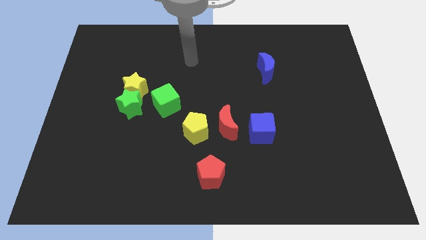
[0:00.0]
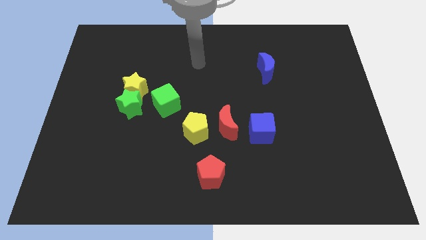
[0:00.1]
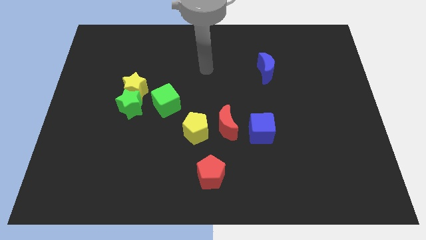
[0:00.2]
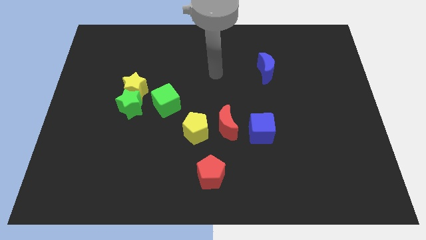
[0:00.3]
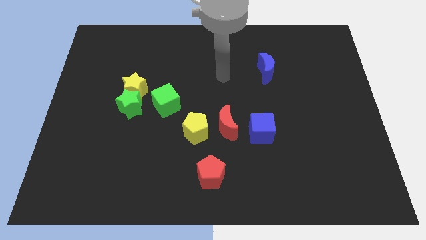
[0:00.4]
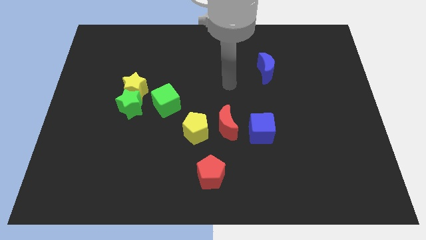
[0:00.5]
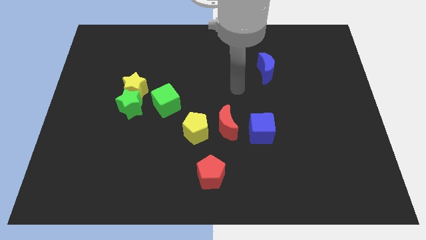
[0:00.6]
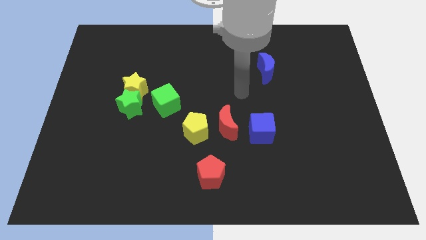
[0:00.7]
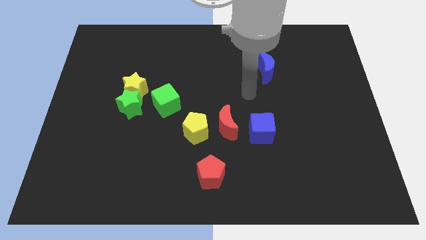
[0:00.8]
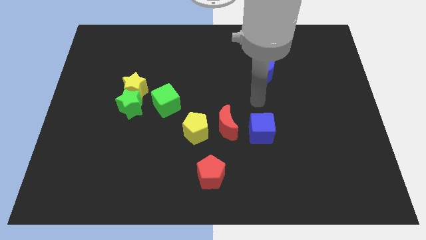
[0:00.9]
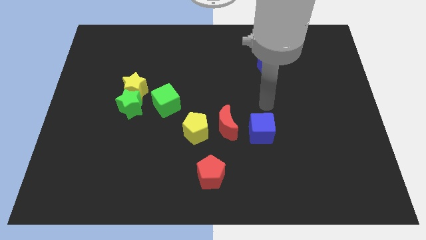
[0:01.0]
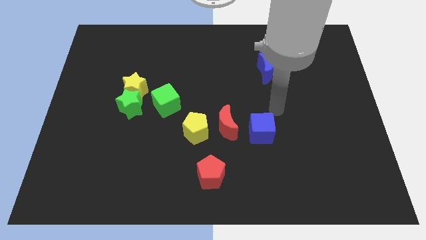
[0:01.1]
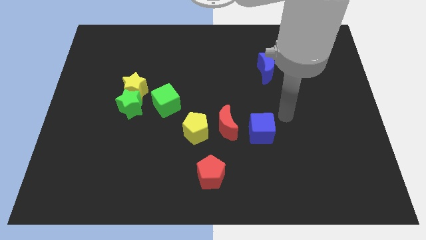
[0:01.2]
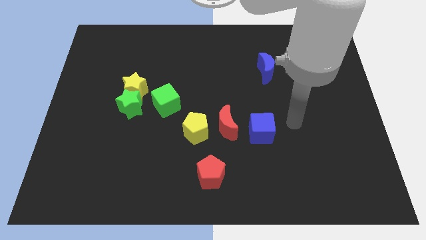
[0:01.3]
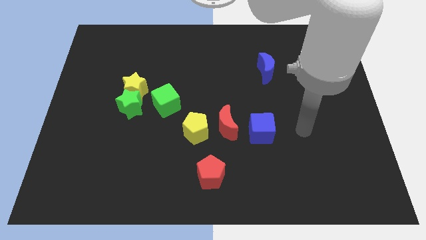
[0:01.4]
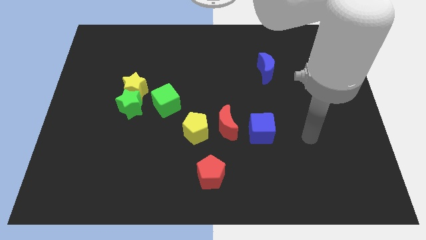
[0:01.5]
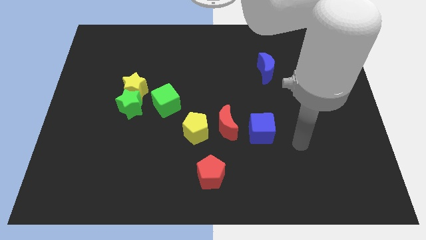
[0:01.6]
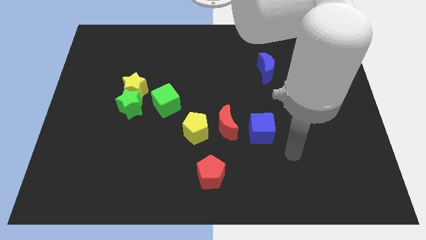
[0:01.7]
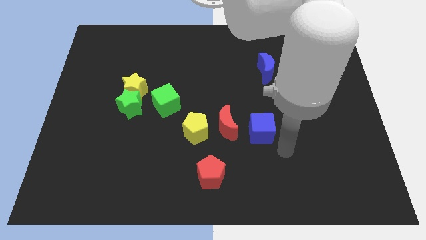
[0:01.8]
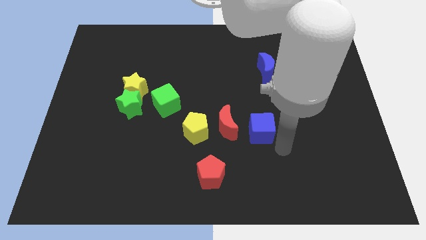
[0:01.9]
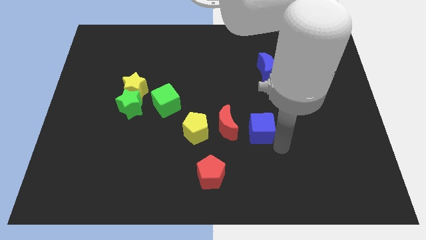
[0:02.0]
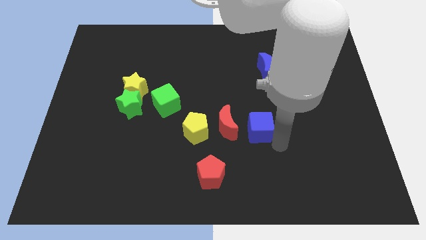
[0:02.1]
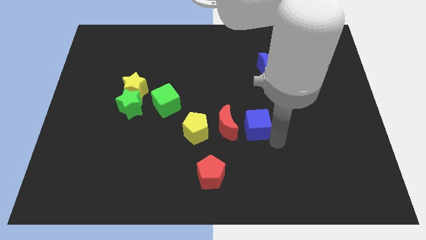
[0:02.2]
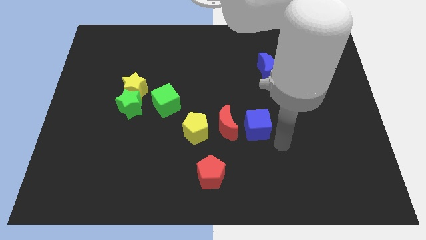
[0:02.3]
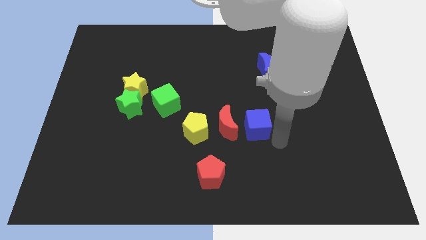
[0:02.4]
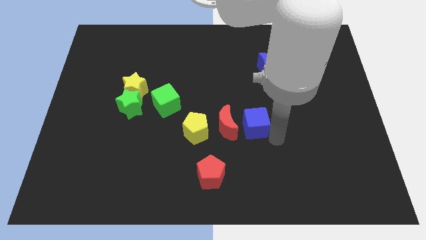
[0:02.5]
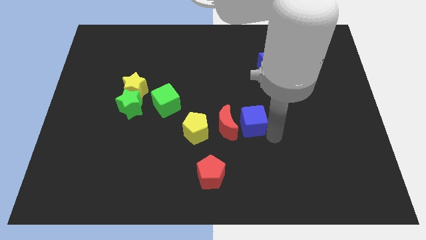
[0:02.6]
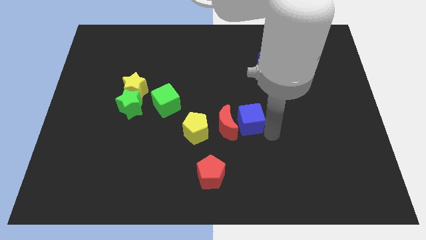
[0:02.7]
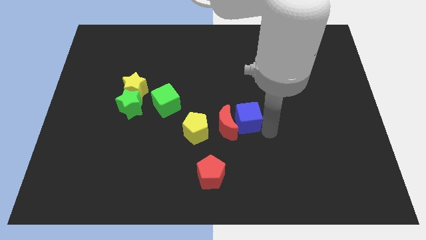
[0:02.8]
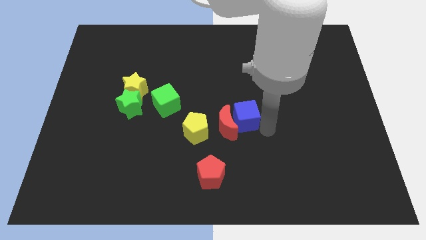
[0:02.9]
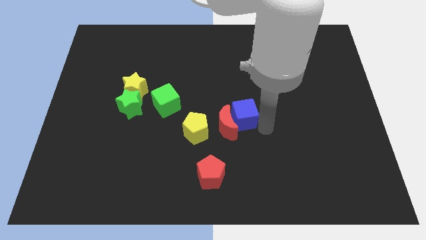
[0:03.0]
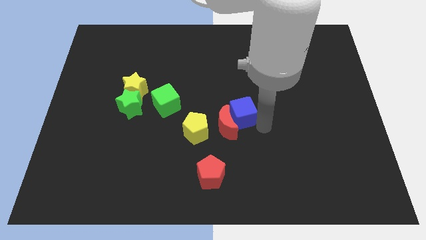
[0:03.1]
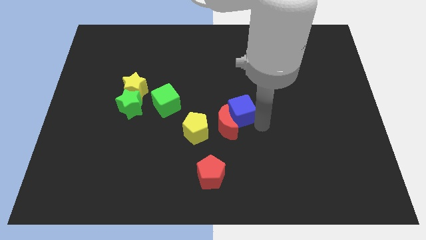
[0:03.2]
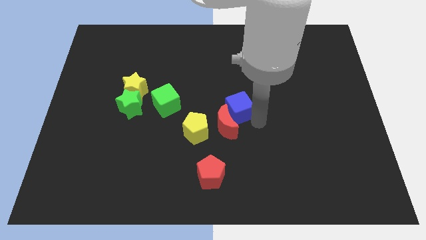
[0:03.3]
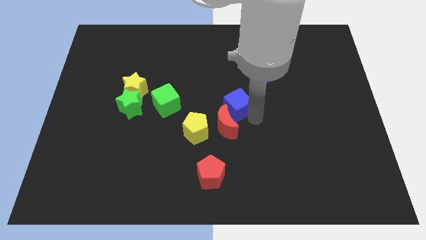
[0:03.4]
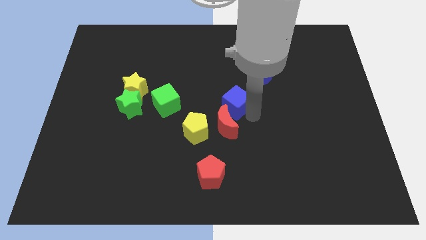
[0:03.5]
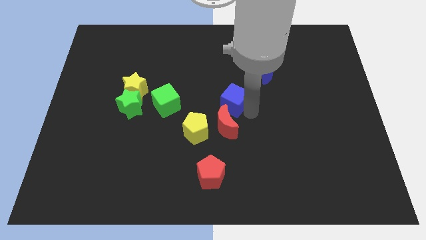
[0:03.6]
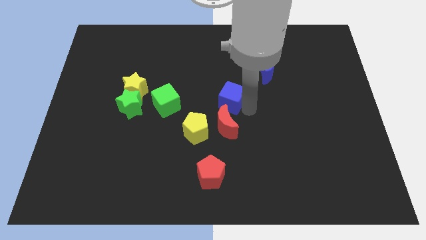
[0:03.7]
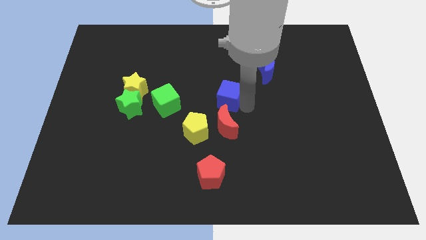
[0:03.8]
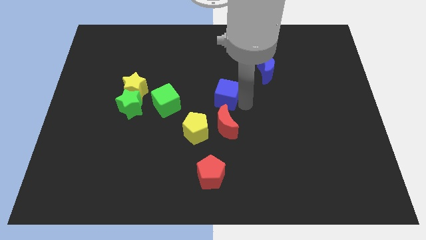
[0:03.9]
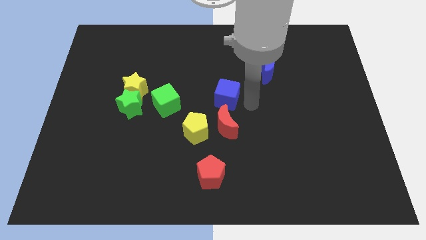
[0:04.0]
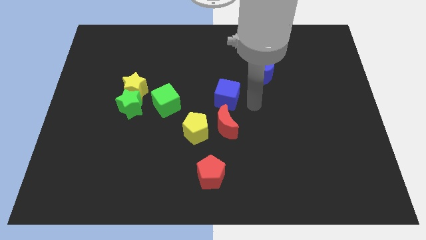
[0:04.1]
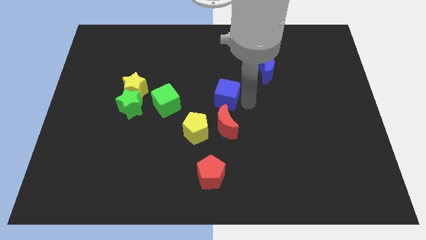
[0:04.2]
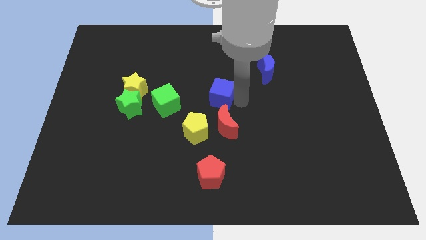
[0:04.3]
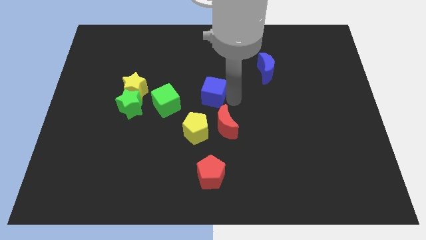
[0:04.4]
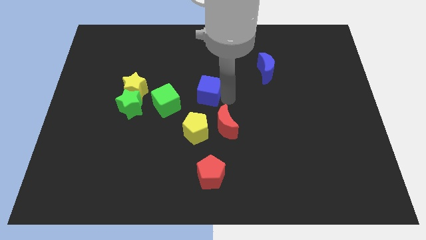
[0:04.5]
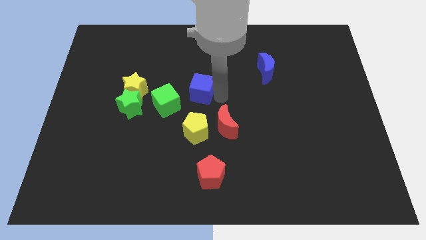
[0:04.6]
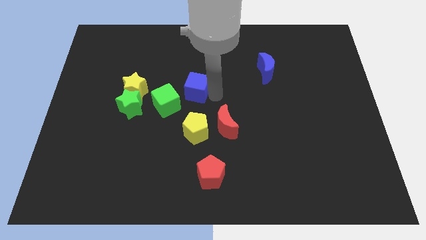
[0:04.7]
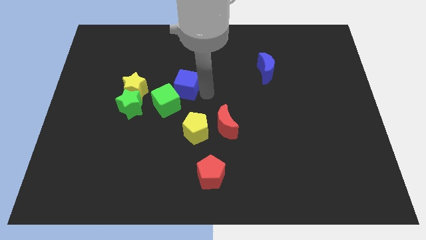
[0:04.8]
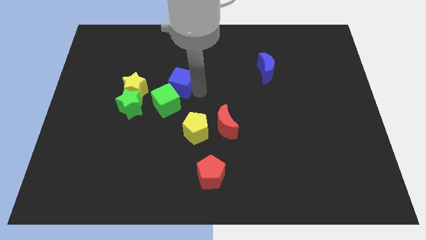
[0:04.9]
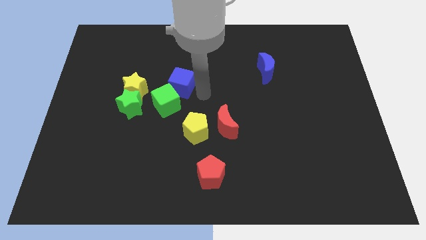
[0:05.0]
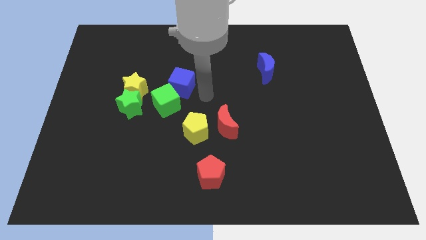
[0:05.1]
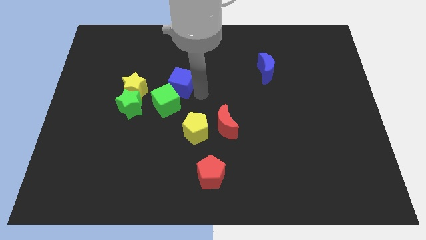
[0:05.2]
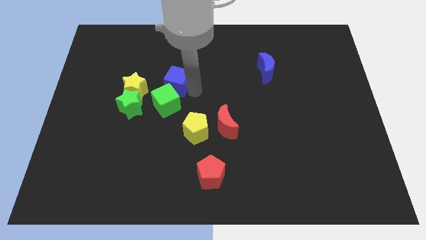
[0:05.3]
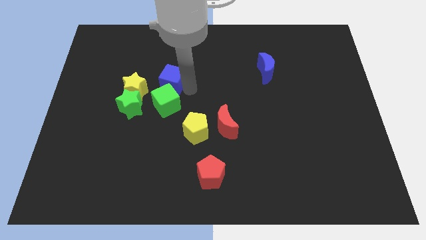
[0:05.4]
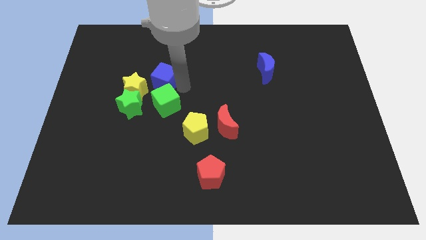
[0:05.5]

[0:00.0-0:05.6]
move the blue cube to the top left side of the green cube

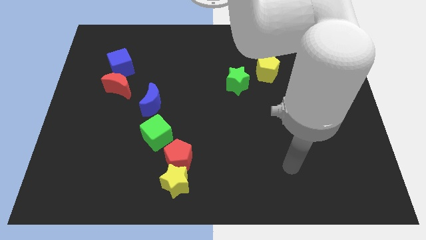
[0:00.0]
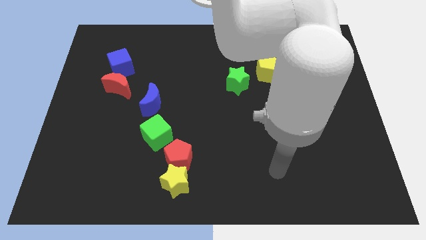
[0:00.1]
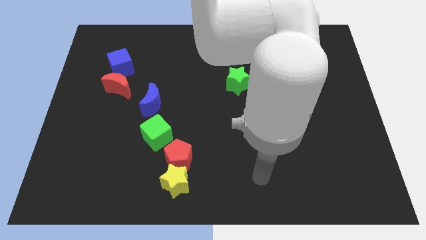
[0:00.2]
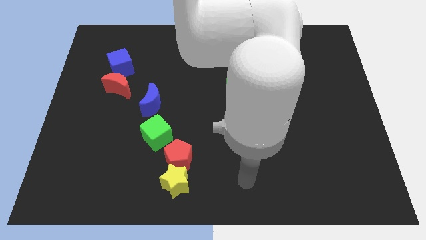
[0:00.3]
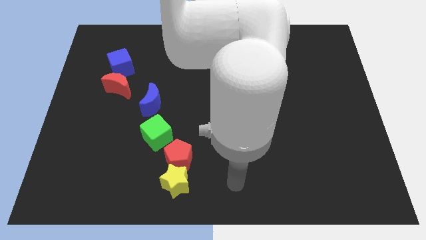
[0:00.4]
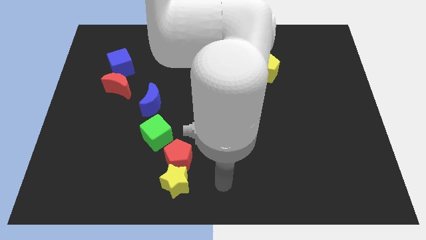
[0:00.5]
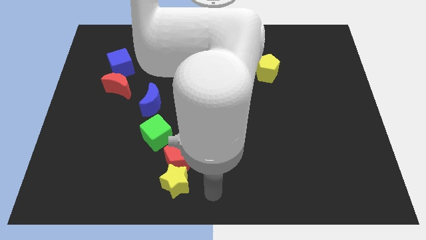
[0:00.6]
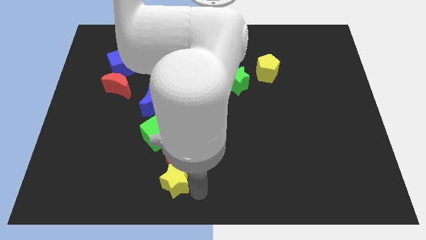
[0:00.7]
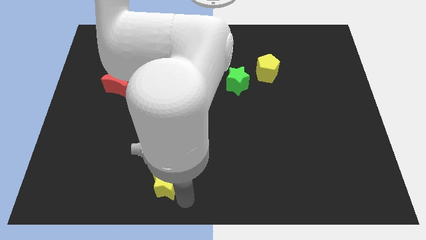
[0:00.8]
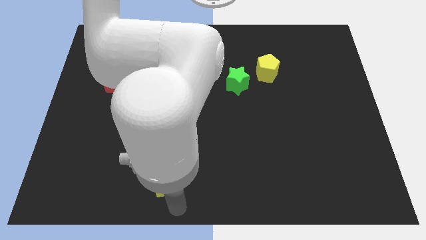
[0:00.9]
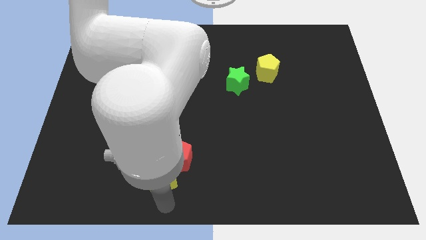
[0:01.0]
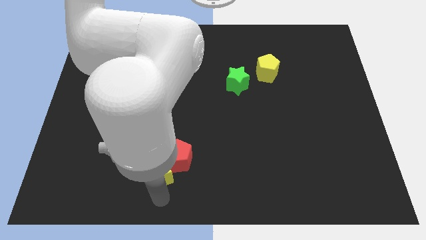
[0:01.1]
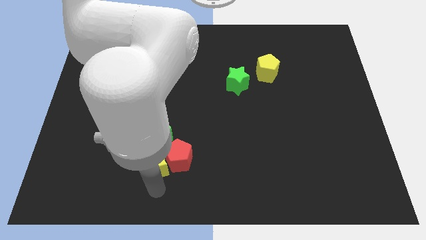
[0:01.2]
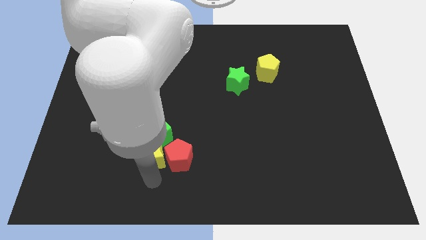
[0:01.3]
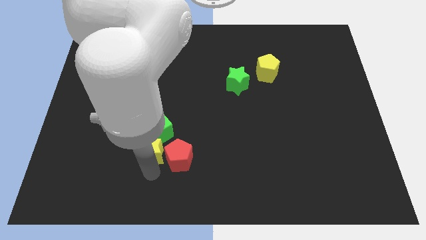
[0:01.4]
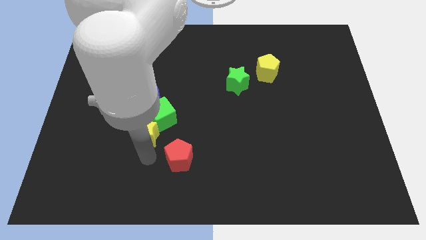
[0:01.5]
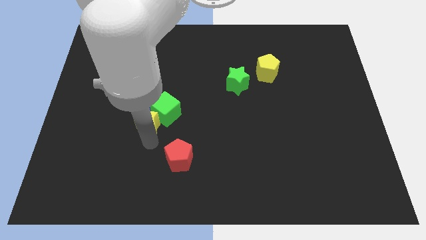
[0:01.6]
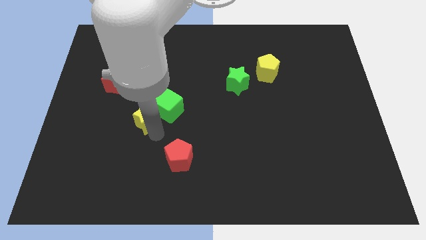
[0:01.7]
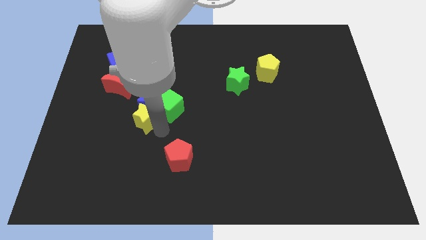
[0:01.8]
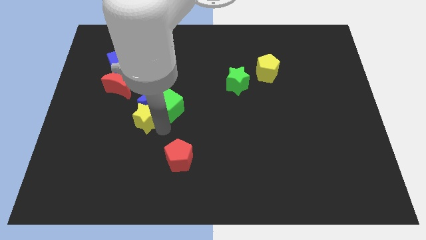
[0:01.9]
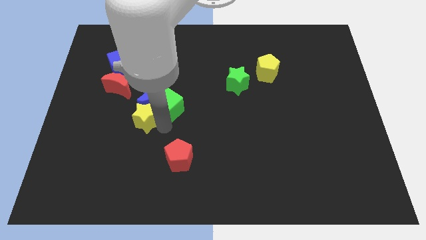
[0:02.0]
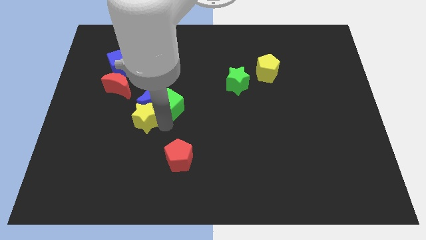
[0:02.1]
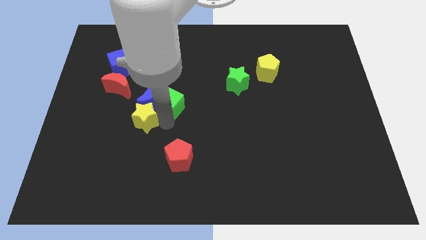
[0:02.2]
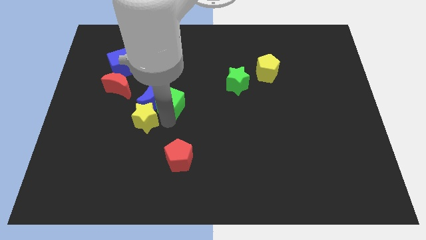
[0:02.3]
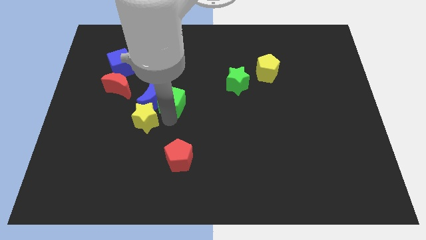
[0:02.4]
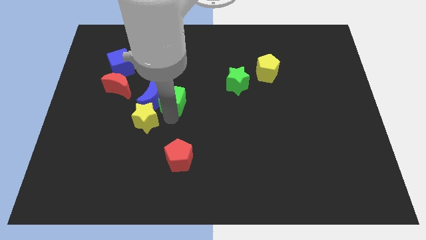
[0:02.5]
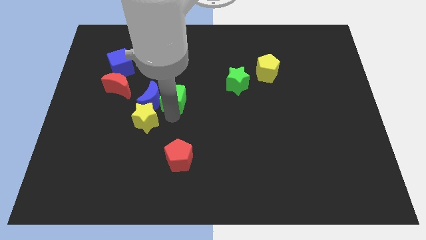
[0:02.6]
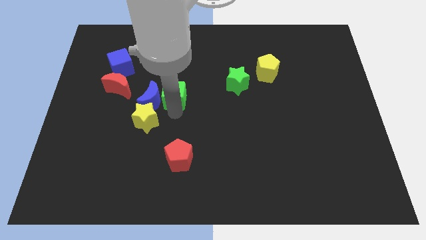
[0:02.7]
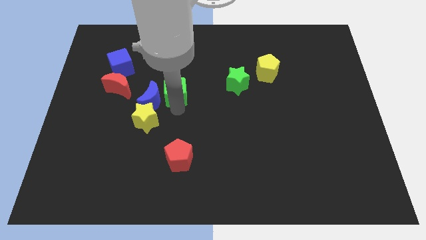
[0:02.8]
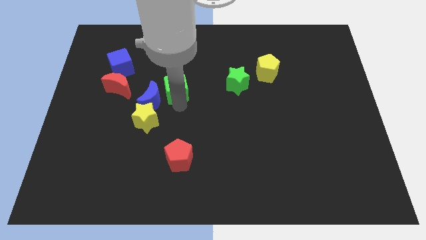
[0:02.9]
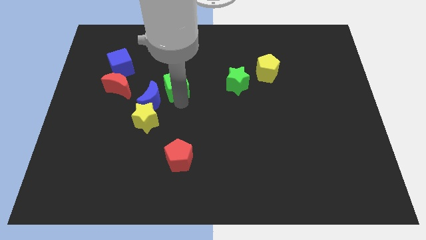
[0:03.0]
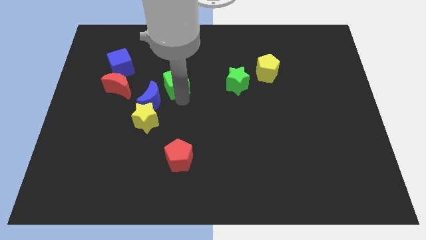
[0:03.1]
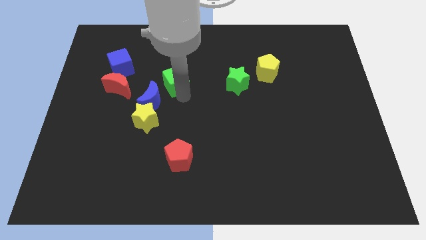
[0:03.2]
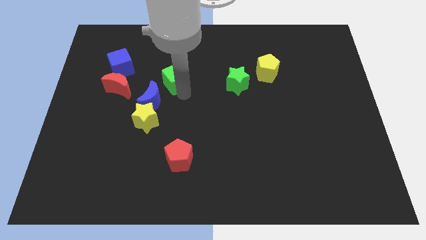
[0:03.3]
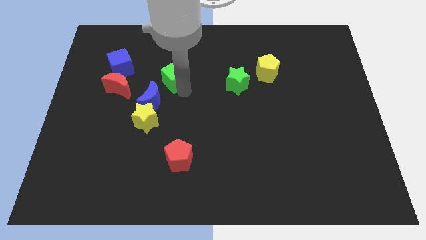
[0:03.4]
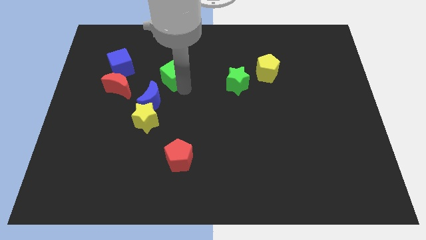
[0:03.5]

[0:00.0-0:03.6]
slide the green cube to the right side of the blue cube
